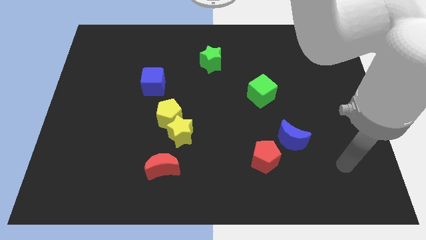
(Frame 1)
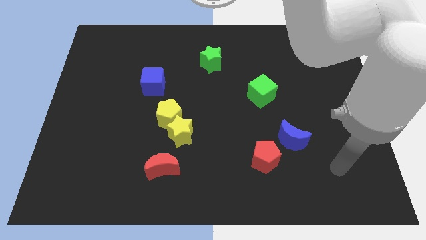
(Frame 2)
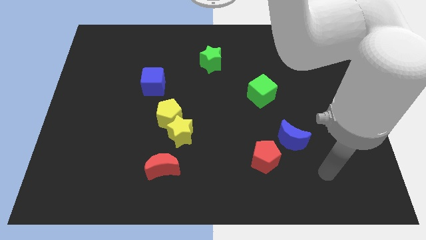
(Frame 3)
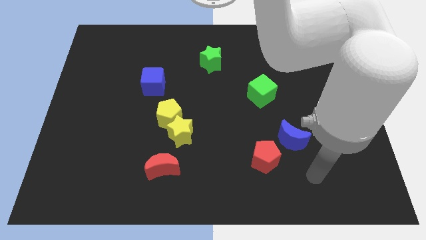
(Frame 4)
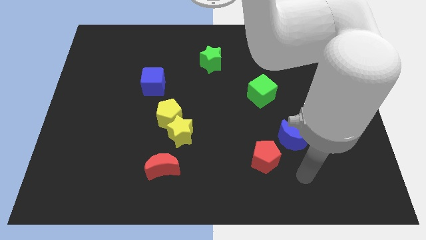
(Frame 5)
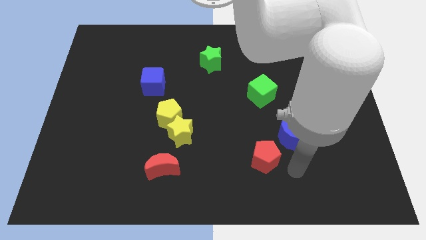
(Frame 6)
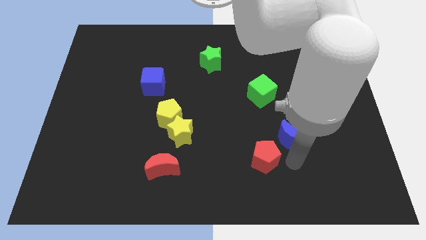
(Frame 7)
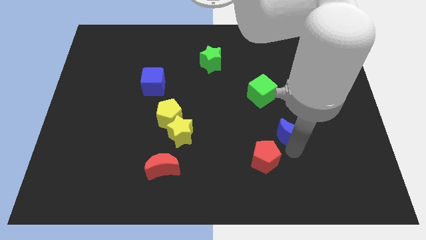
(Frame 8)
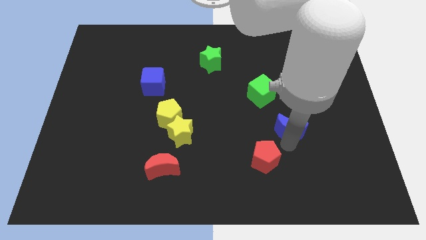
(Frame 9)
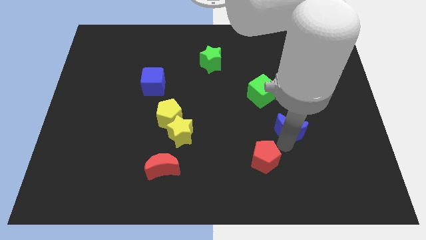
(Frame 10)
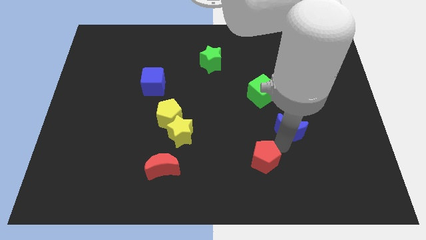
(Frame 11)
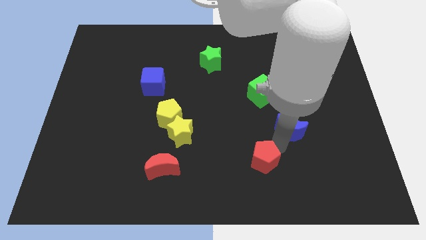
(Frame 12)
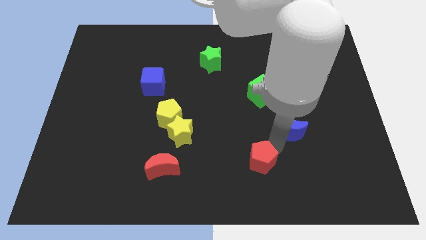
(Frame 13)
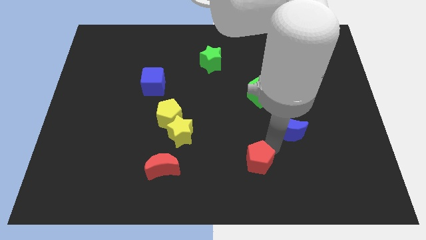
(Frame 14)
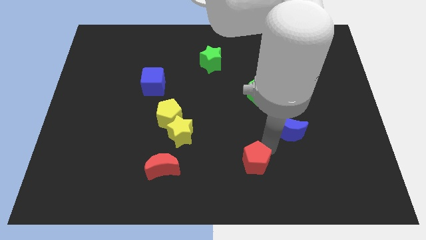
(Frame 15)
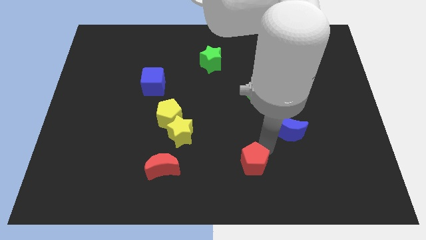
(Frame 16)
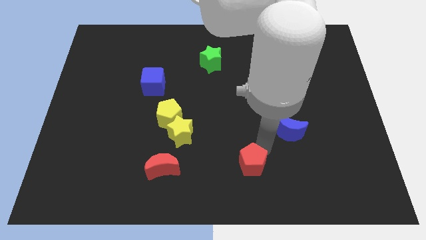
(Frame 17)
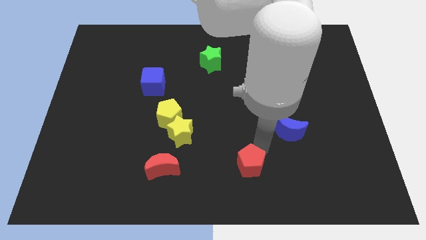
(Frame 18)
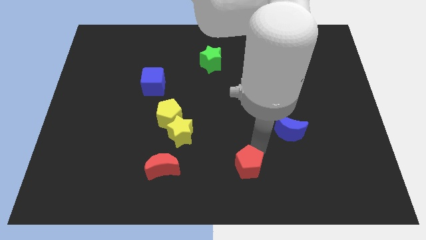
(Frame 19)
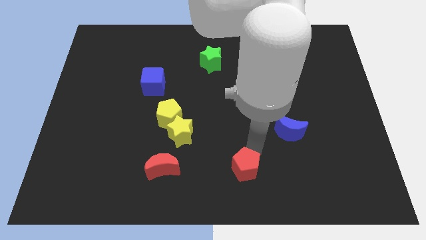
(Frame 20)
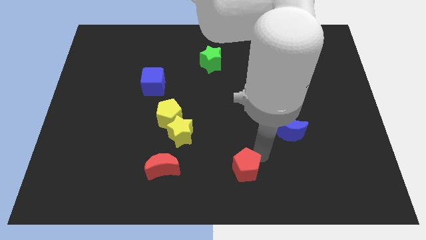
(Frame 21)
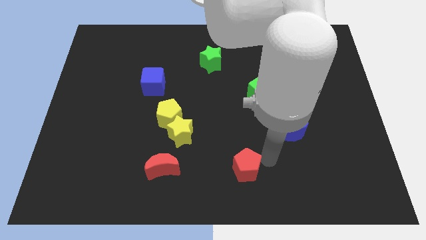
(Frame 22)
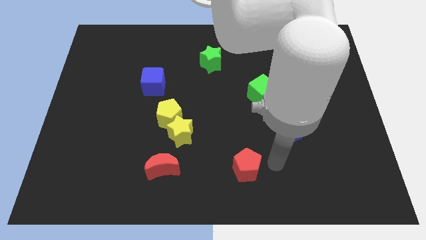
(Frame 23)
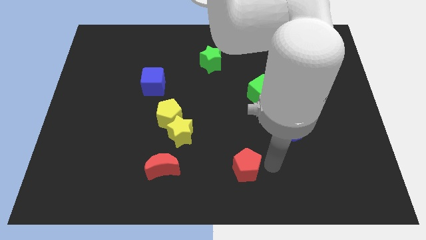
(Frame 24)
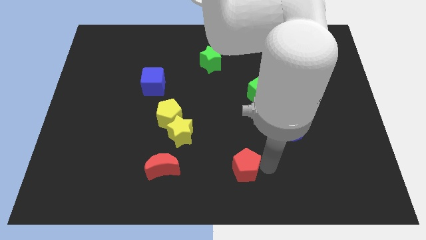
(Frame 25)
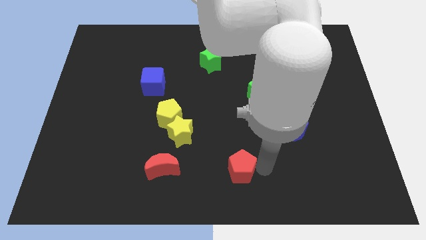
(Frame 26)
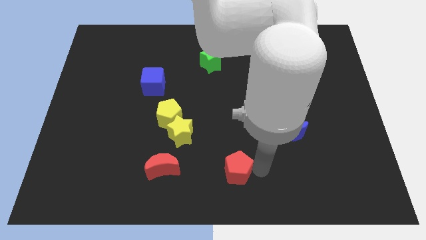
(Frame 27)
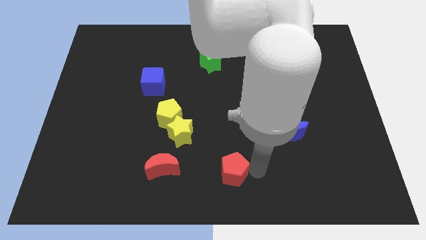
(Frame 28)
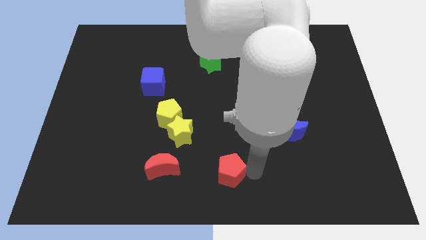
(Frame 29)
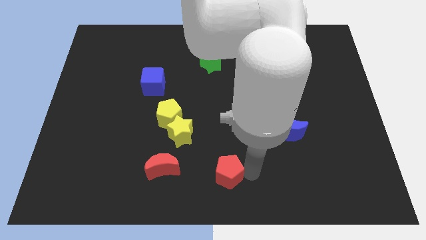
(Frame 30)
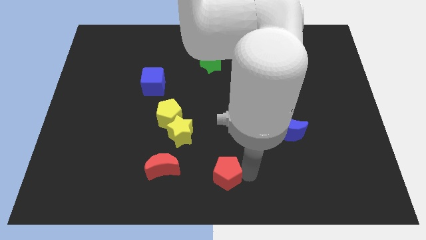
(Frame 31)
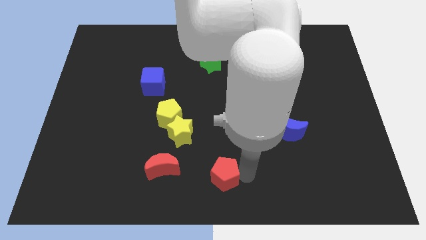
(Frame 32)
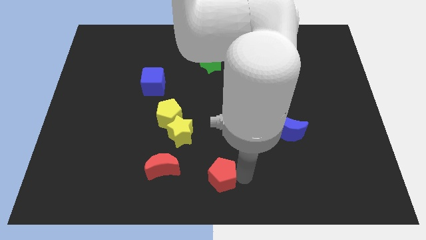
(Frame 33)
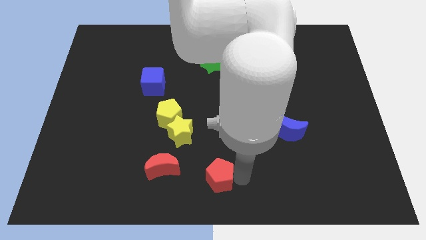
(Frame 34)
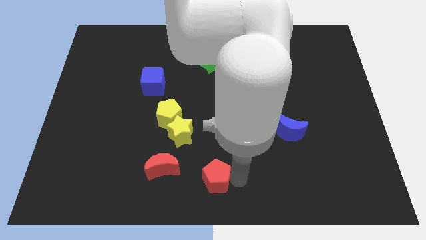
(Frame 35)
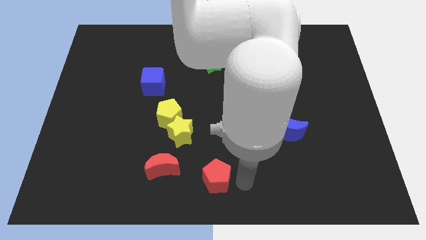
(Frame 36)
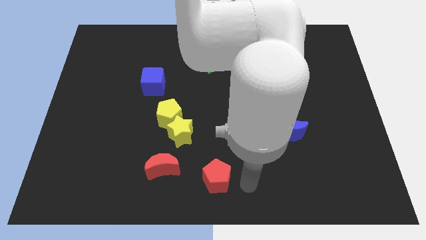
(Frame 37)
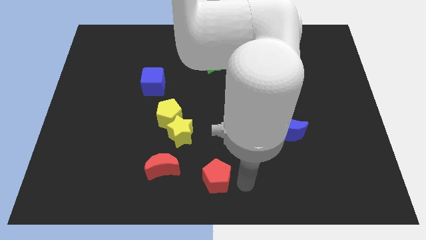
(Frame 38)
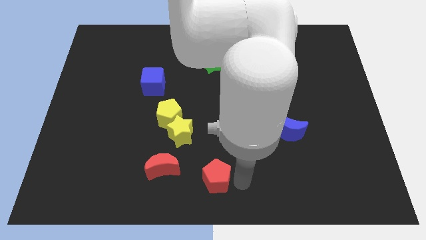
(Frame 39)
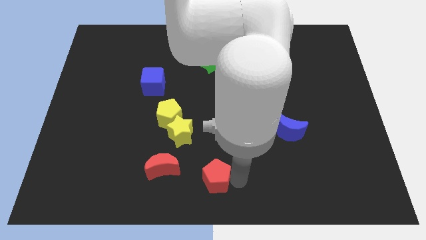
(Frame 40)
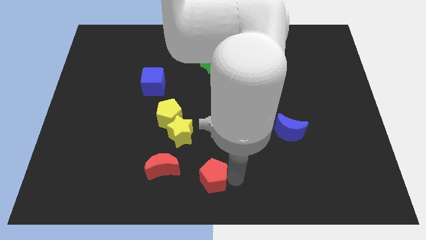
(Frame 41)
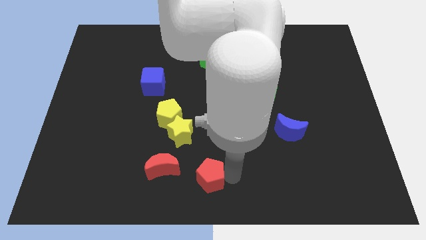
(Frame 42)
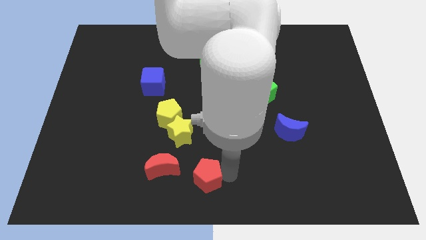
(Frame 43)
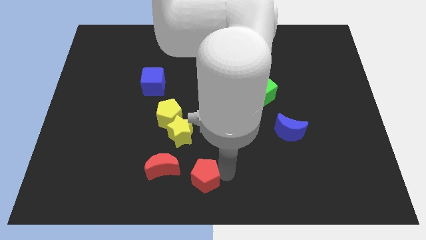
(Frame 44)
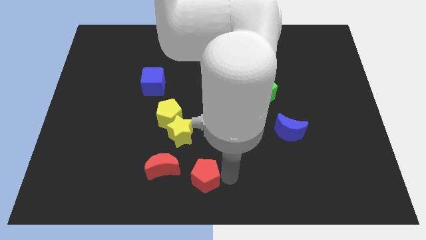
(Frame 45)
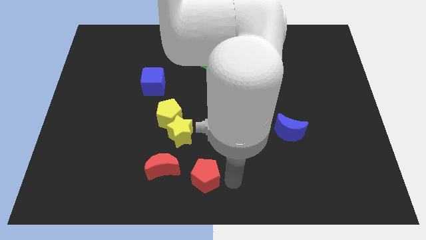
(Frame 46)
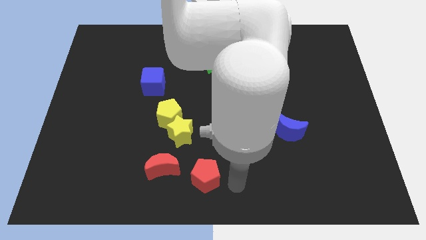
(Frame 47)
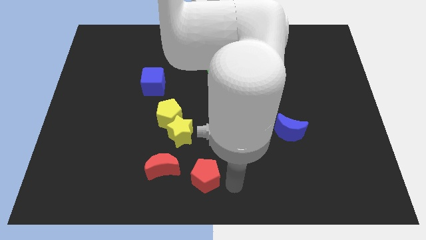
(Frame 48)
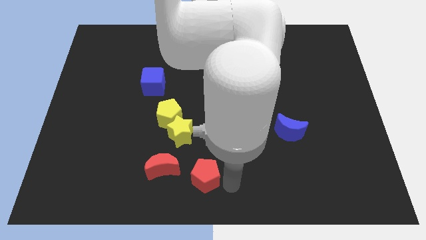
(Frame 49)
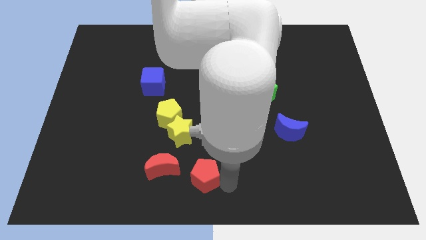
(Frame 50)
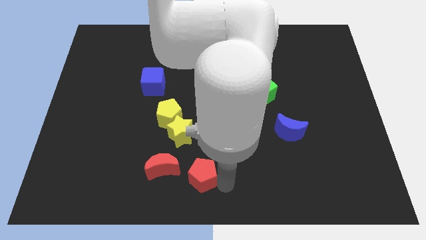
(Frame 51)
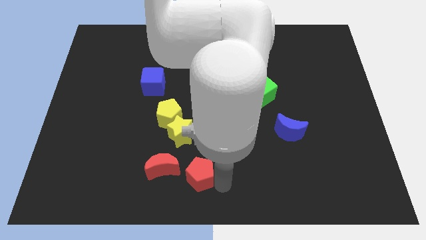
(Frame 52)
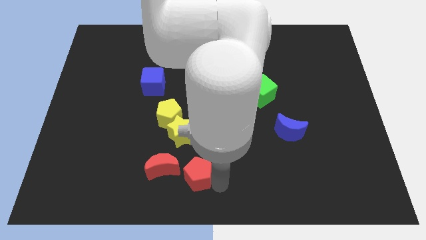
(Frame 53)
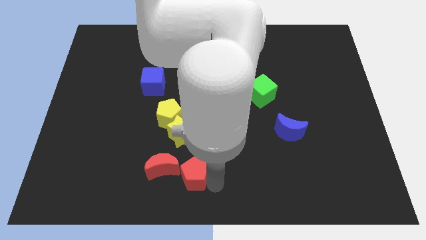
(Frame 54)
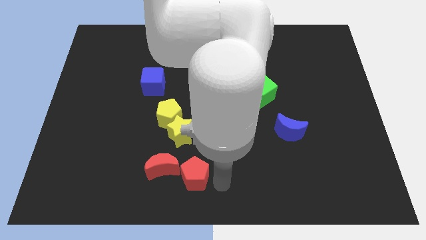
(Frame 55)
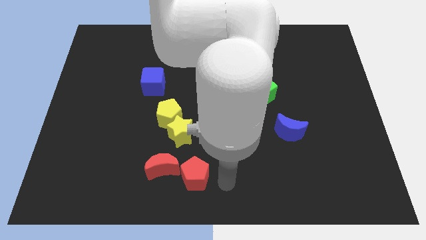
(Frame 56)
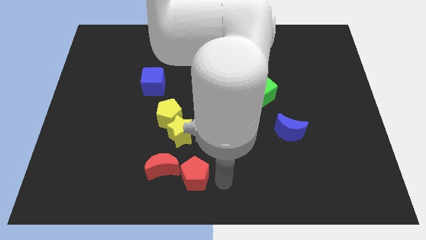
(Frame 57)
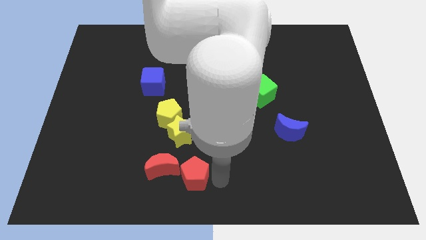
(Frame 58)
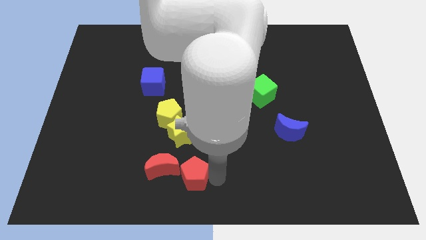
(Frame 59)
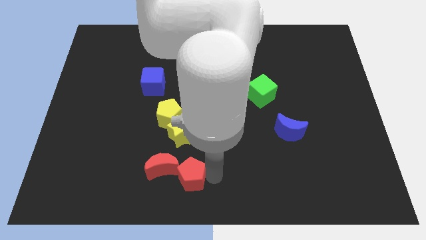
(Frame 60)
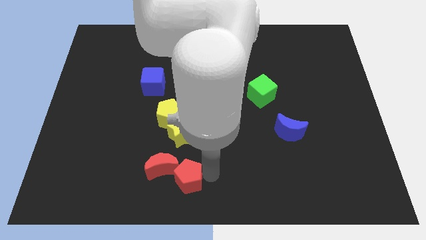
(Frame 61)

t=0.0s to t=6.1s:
slide the red pentagon to the red moon

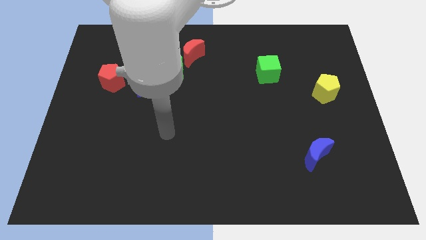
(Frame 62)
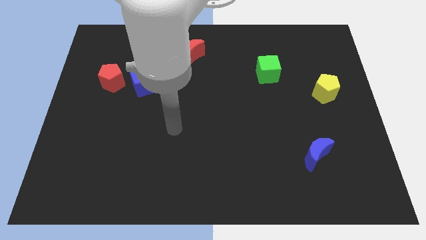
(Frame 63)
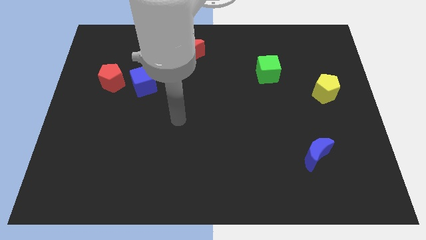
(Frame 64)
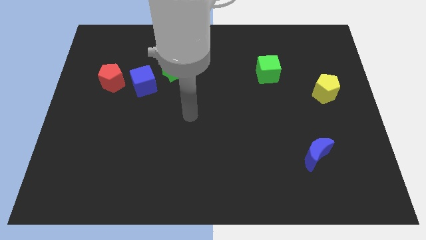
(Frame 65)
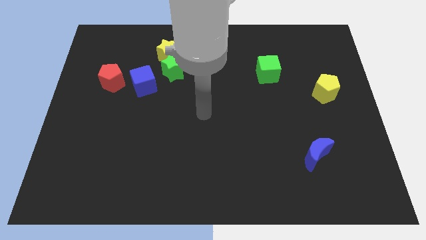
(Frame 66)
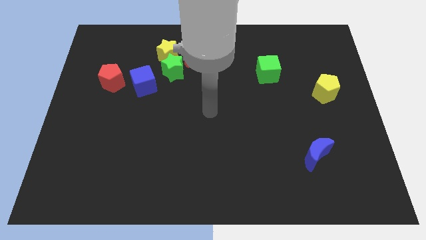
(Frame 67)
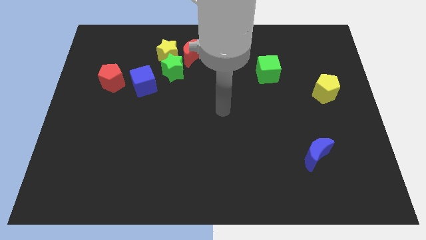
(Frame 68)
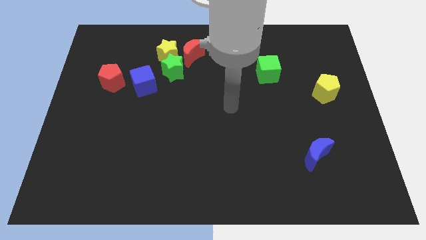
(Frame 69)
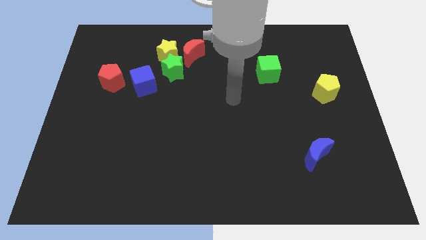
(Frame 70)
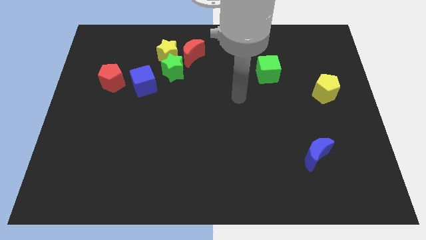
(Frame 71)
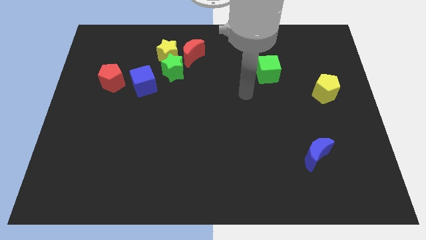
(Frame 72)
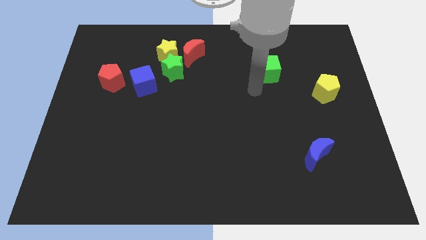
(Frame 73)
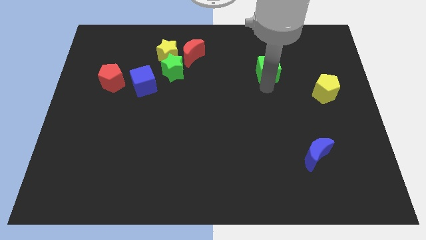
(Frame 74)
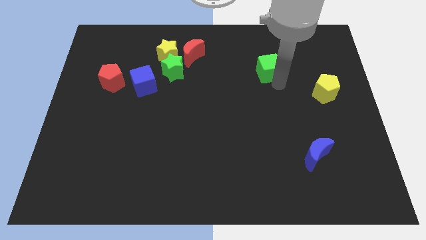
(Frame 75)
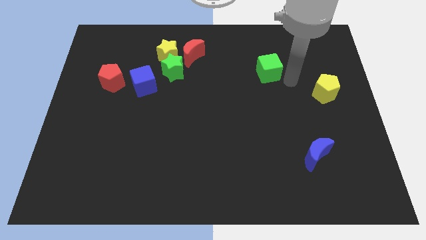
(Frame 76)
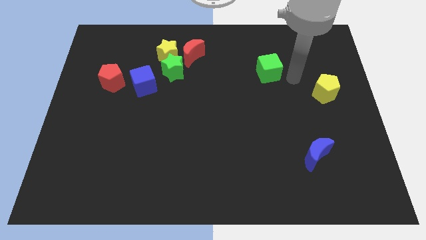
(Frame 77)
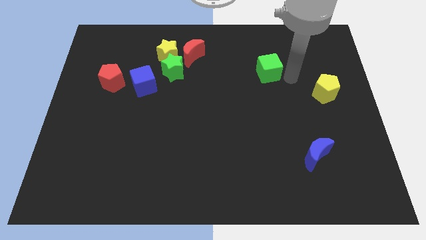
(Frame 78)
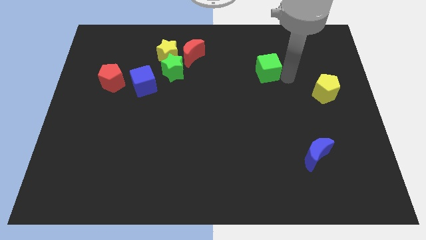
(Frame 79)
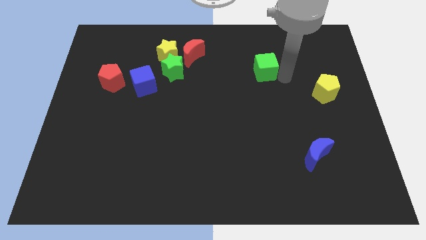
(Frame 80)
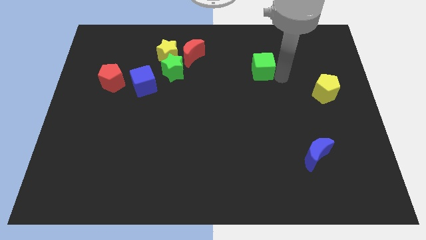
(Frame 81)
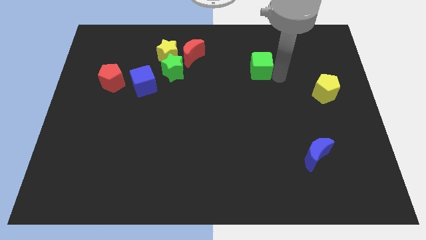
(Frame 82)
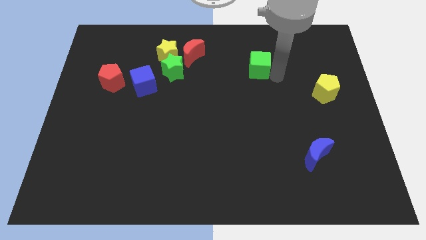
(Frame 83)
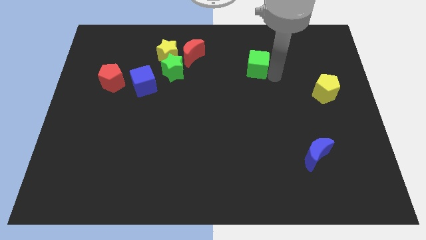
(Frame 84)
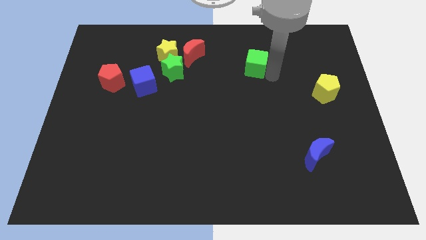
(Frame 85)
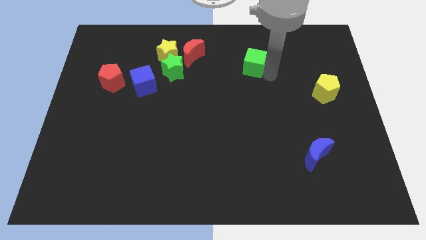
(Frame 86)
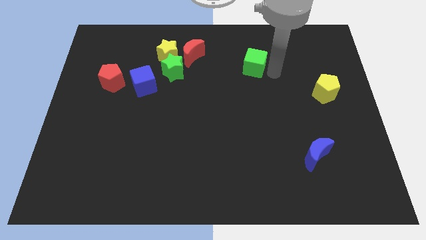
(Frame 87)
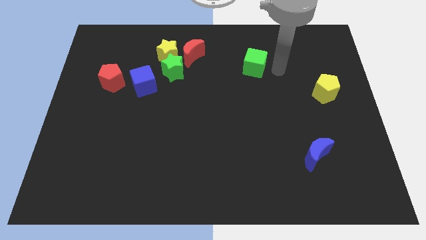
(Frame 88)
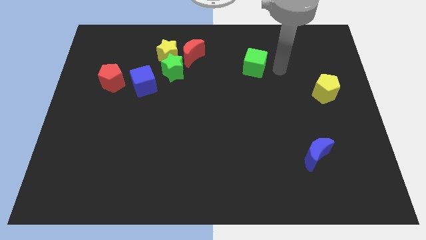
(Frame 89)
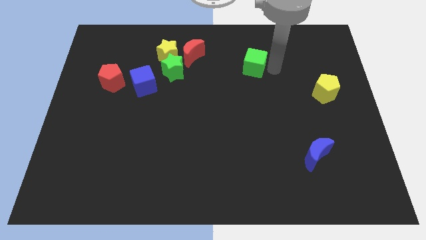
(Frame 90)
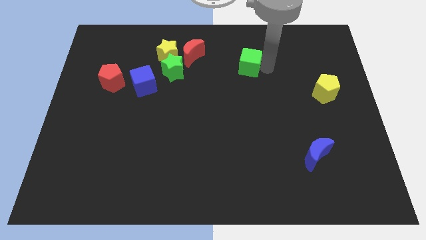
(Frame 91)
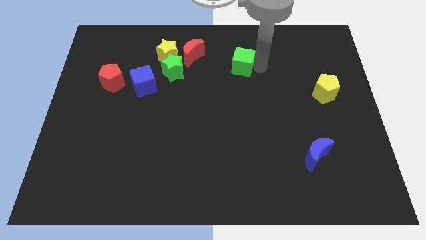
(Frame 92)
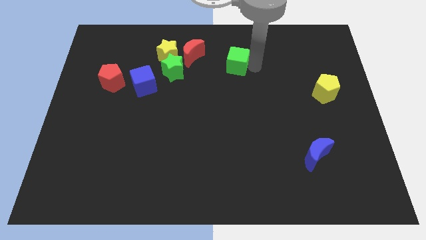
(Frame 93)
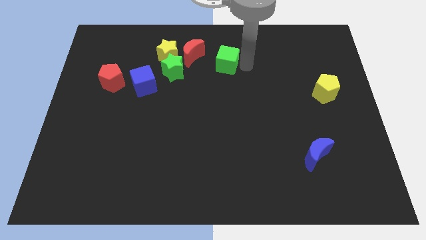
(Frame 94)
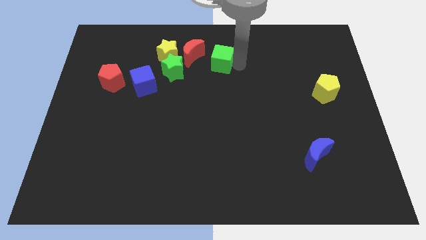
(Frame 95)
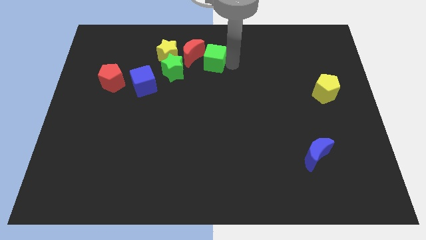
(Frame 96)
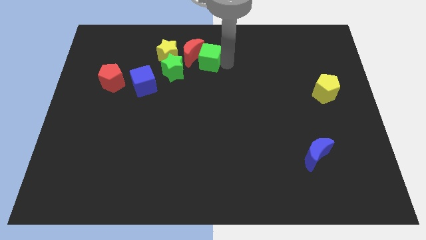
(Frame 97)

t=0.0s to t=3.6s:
push the green cube to the red moon
